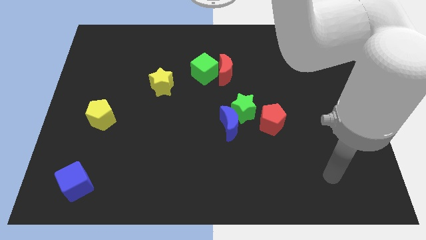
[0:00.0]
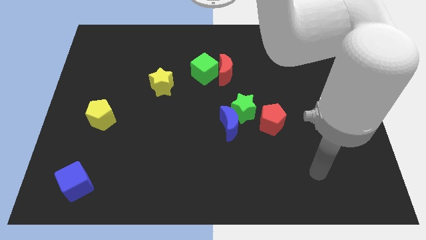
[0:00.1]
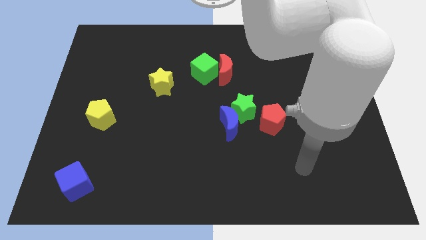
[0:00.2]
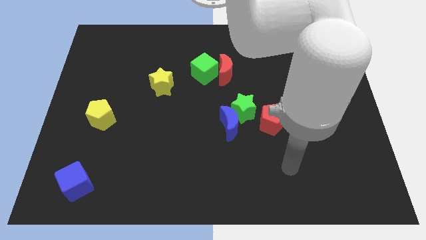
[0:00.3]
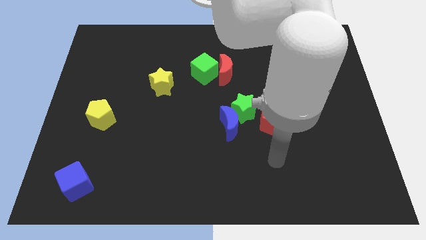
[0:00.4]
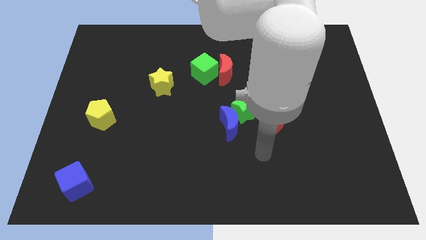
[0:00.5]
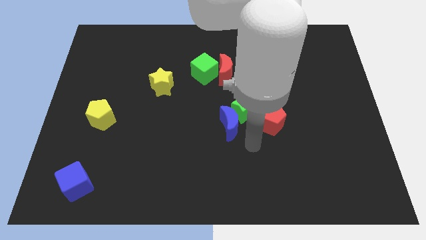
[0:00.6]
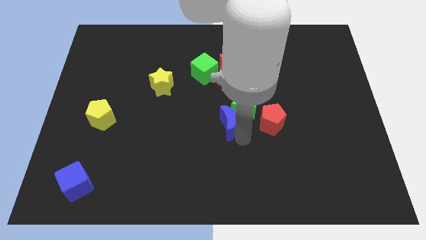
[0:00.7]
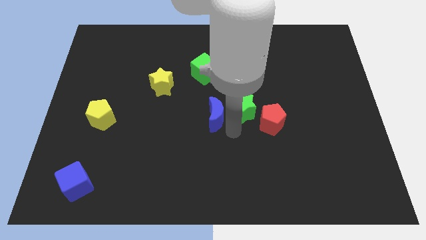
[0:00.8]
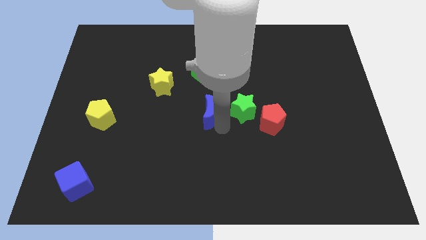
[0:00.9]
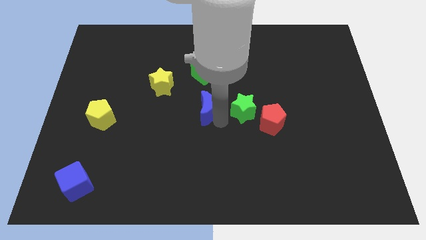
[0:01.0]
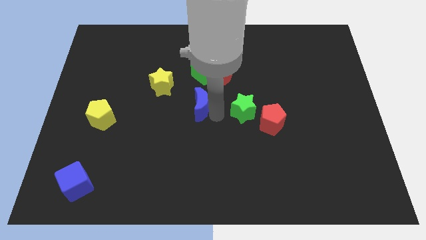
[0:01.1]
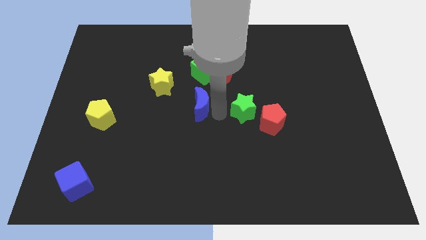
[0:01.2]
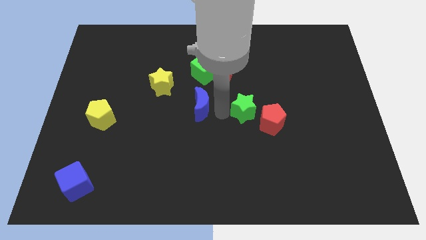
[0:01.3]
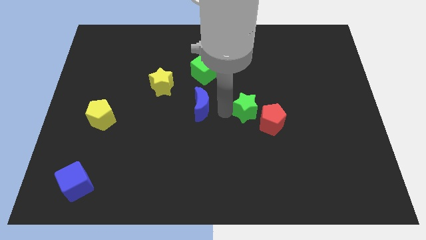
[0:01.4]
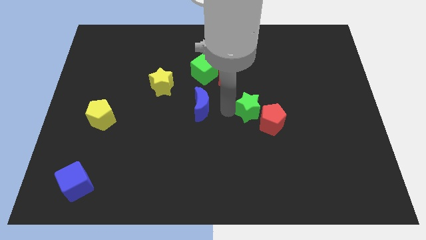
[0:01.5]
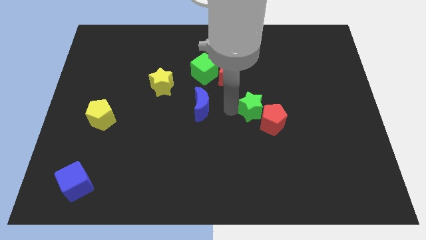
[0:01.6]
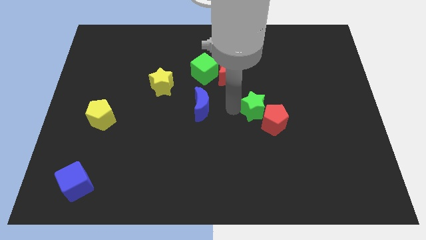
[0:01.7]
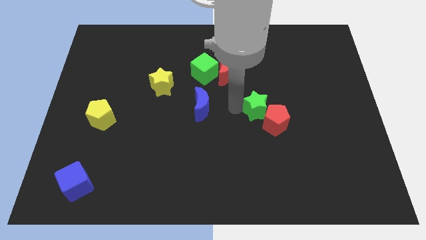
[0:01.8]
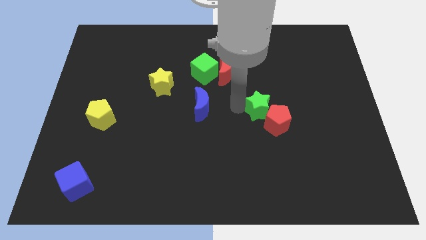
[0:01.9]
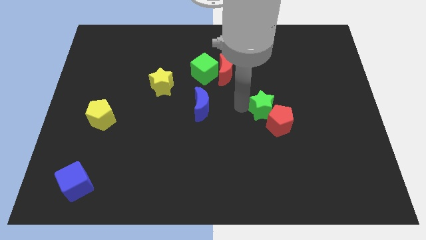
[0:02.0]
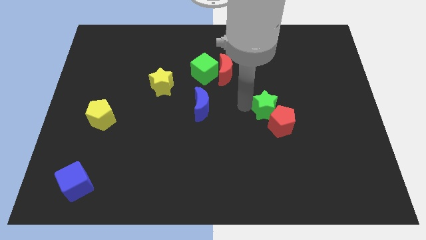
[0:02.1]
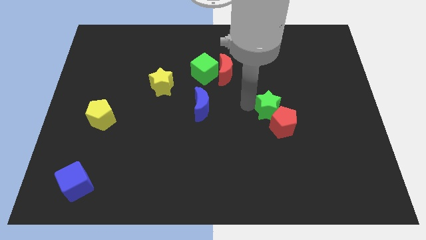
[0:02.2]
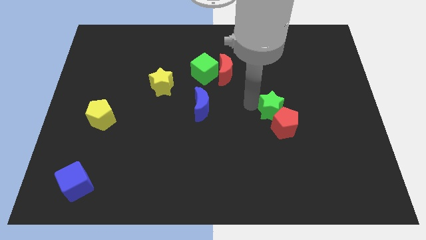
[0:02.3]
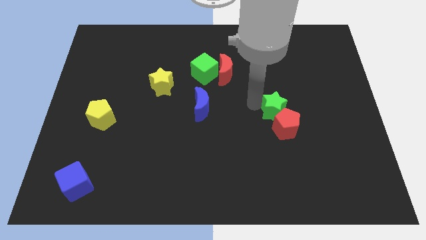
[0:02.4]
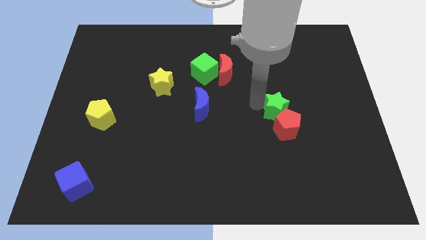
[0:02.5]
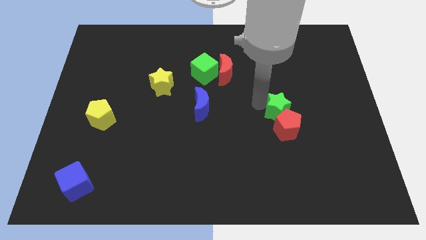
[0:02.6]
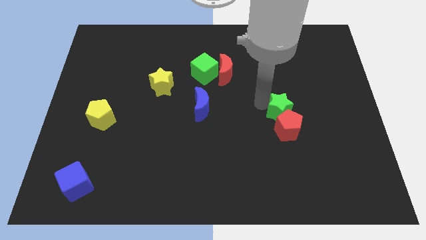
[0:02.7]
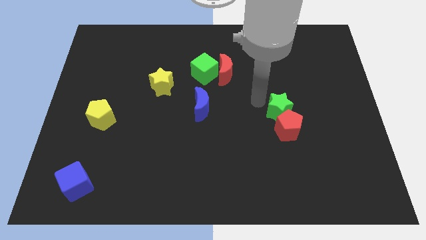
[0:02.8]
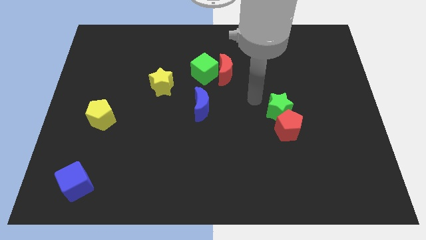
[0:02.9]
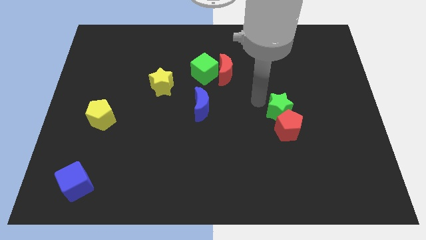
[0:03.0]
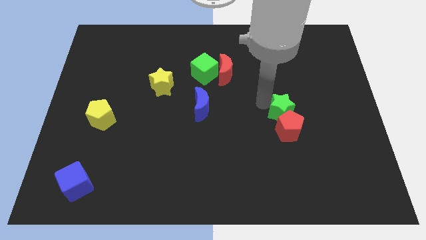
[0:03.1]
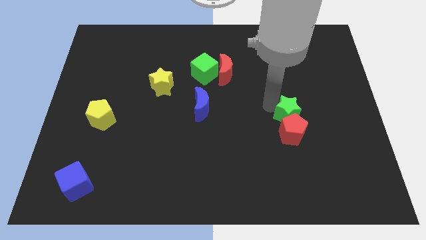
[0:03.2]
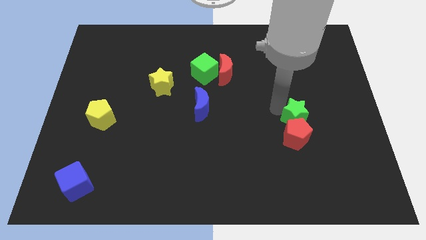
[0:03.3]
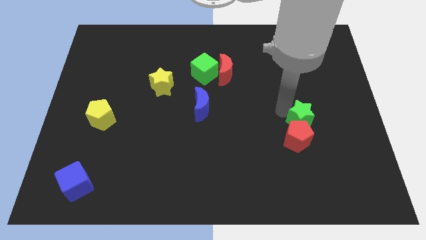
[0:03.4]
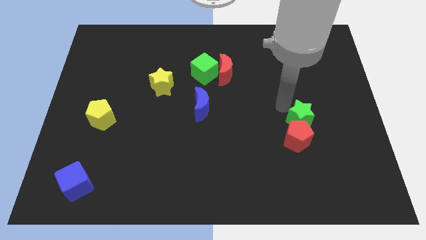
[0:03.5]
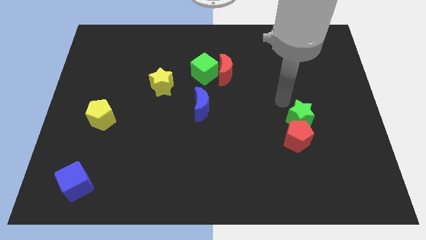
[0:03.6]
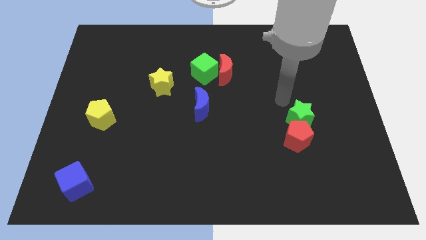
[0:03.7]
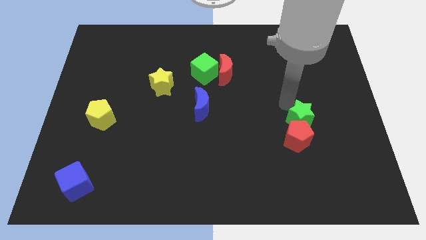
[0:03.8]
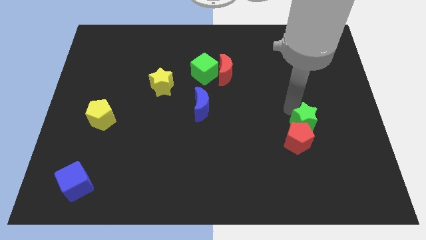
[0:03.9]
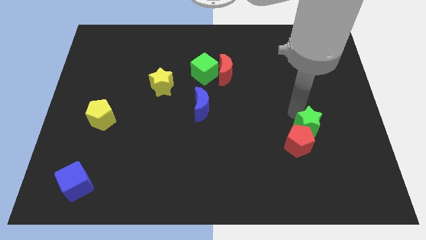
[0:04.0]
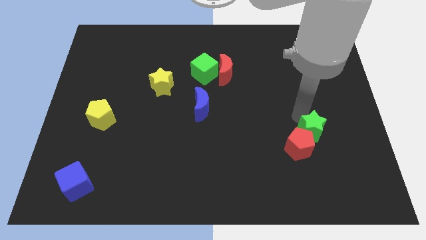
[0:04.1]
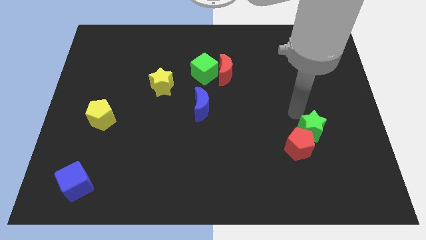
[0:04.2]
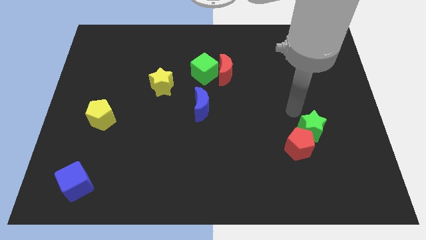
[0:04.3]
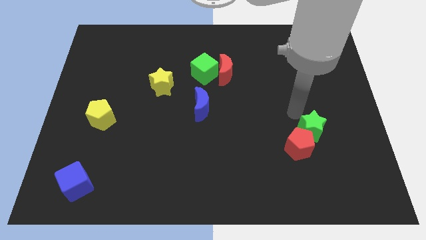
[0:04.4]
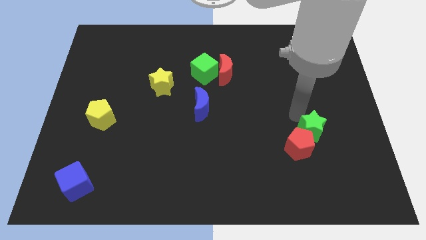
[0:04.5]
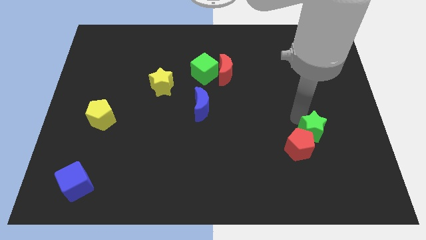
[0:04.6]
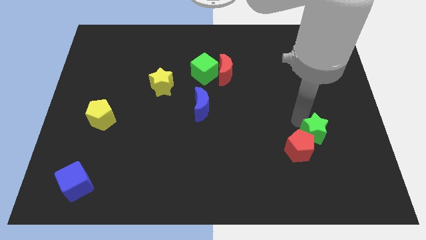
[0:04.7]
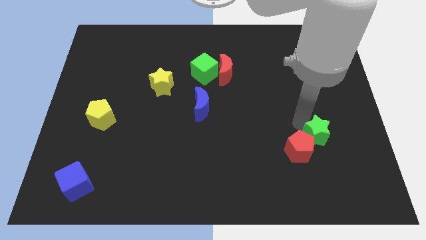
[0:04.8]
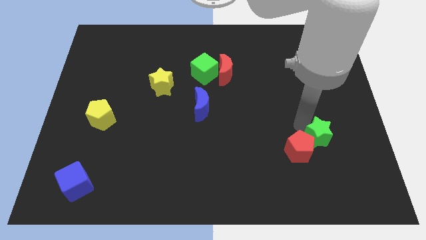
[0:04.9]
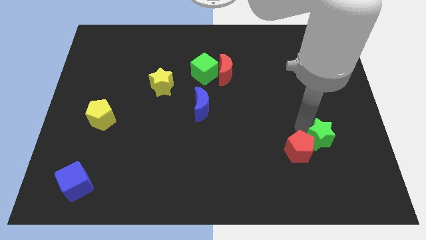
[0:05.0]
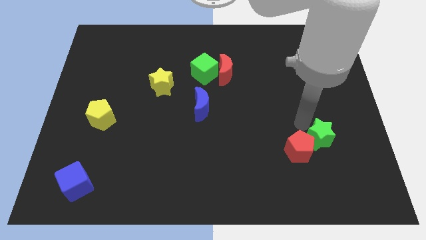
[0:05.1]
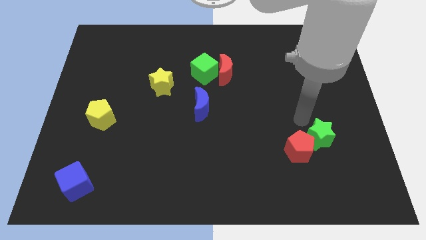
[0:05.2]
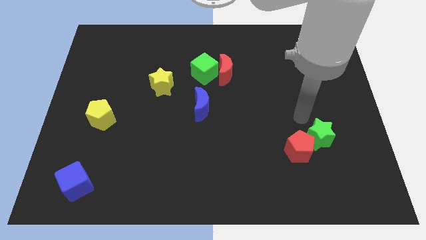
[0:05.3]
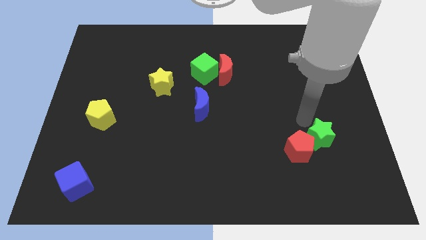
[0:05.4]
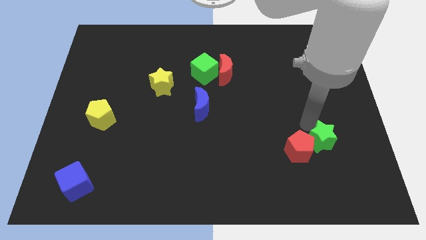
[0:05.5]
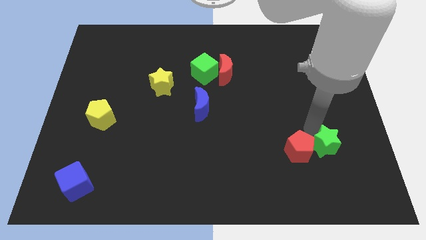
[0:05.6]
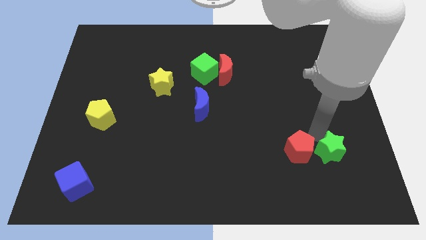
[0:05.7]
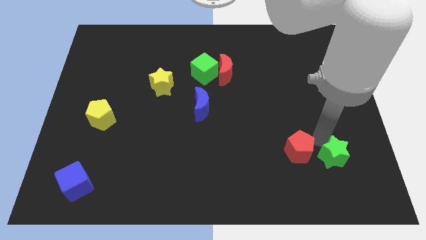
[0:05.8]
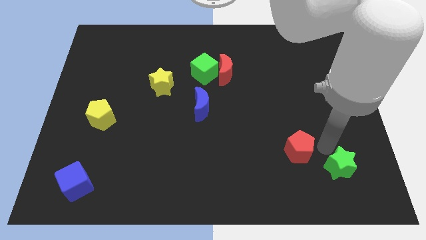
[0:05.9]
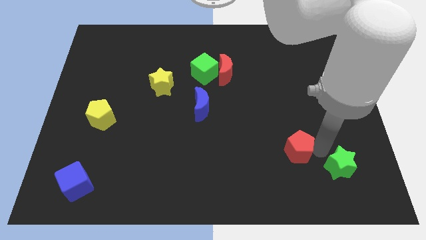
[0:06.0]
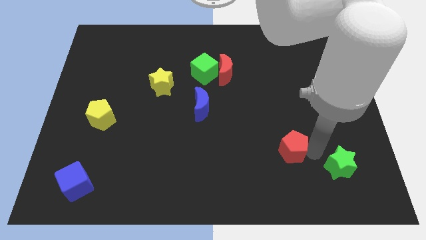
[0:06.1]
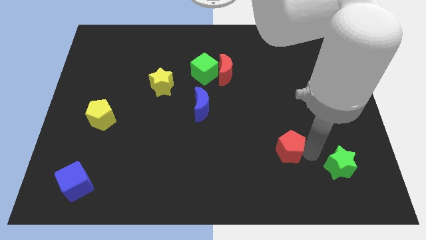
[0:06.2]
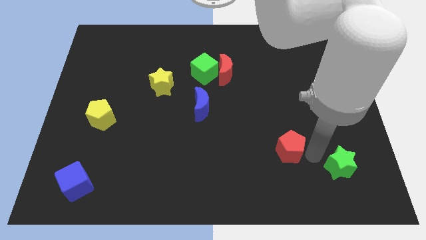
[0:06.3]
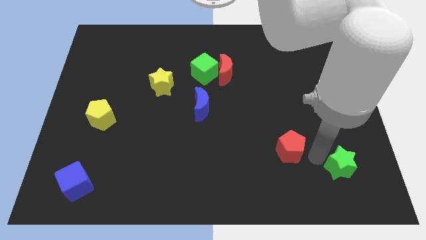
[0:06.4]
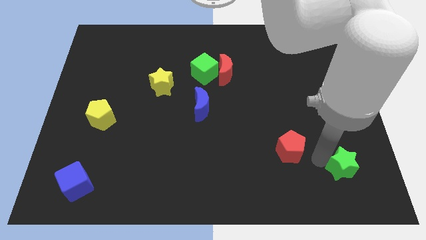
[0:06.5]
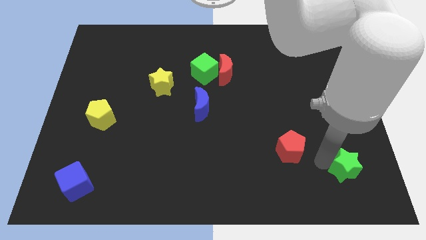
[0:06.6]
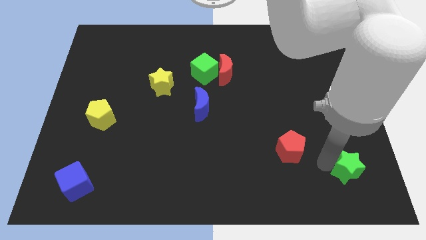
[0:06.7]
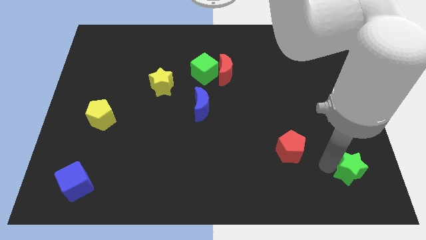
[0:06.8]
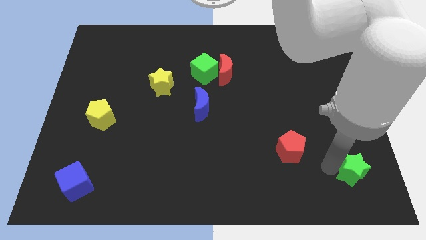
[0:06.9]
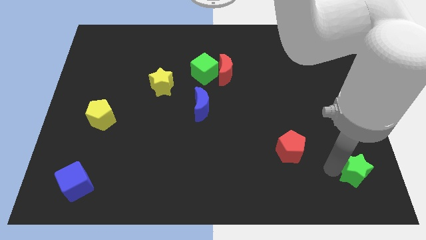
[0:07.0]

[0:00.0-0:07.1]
push the green star to the bottom right corner
